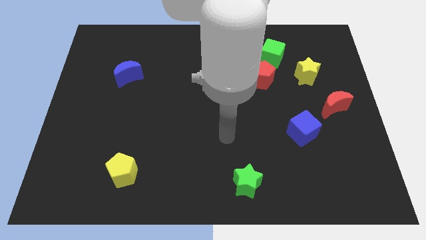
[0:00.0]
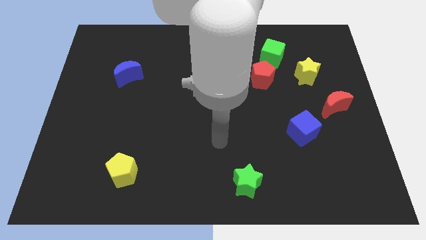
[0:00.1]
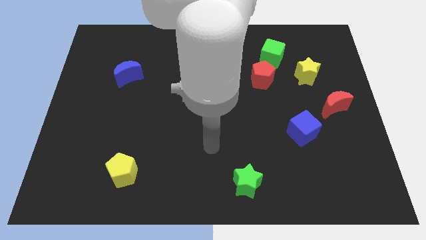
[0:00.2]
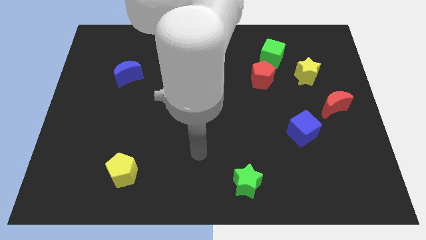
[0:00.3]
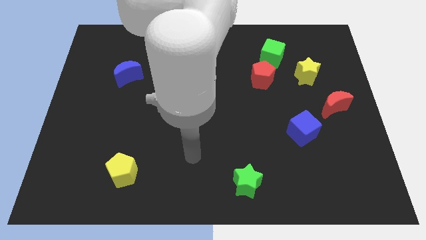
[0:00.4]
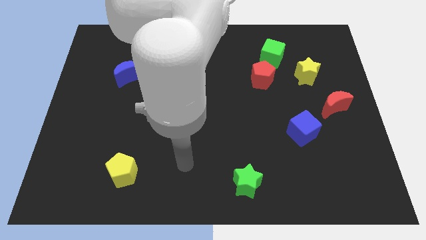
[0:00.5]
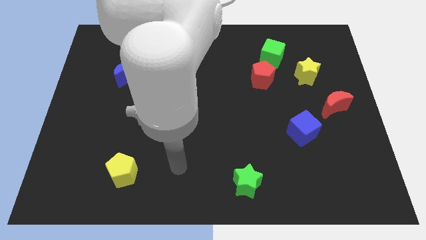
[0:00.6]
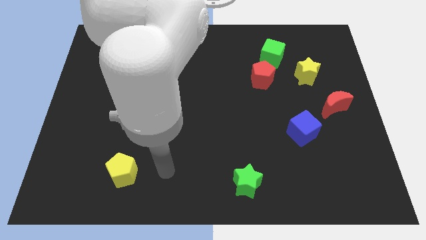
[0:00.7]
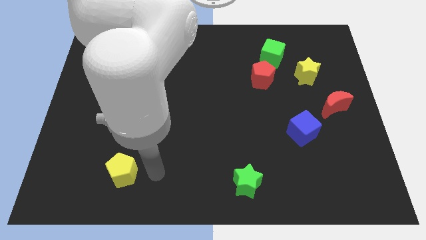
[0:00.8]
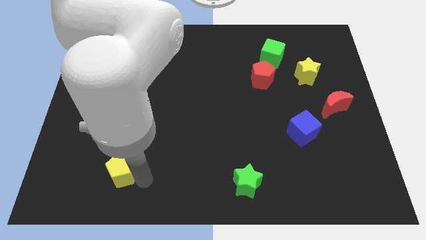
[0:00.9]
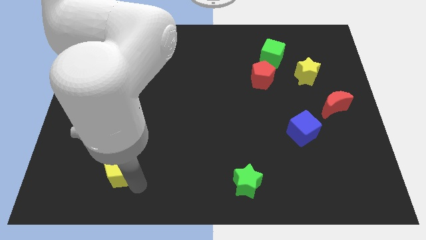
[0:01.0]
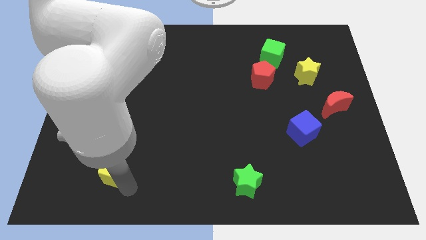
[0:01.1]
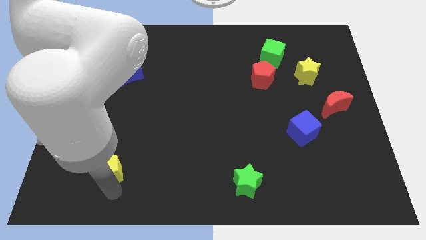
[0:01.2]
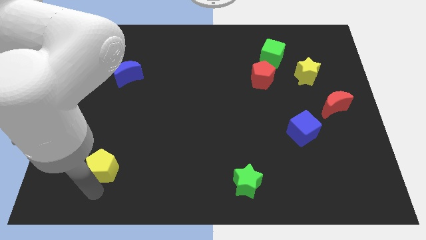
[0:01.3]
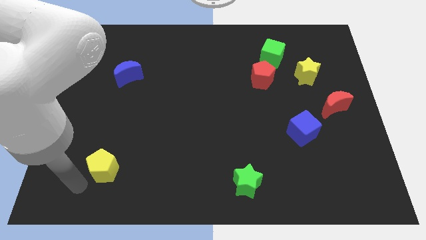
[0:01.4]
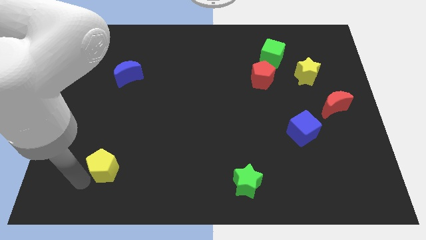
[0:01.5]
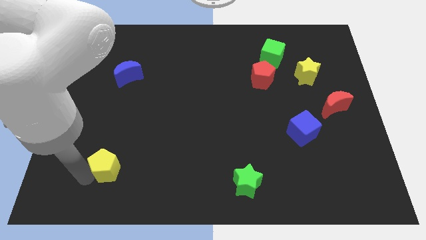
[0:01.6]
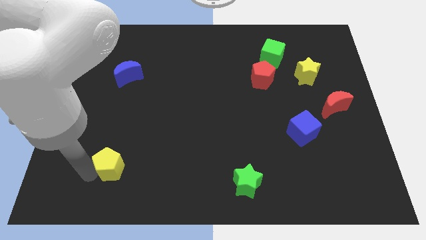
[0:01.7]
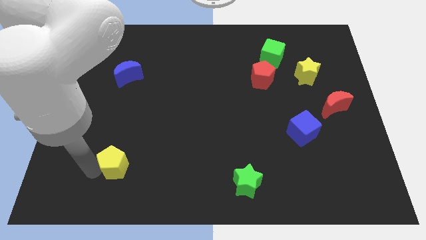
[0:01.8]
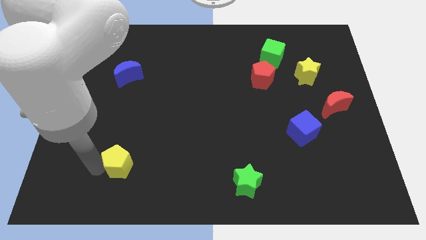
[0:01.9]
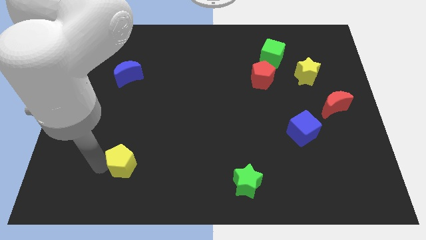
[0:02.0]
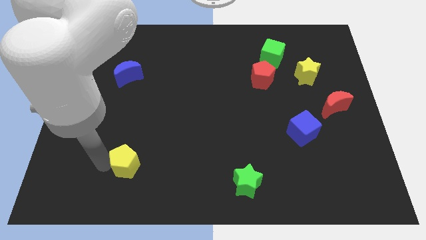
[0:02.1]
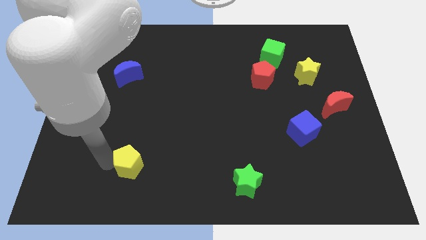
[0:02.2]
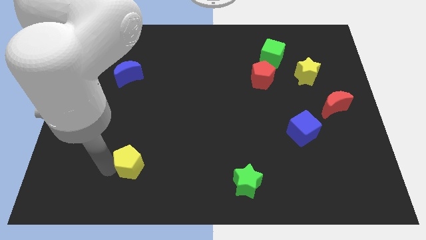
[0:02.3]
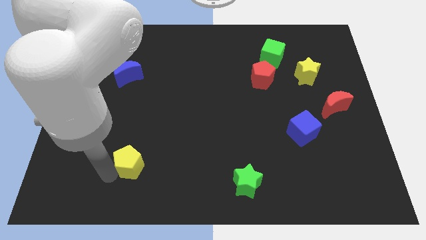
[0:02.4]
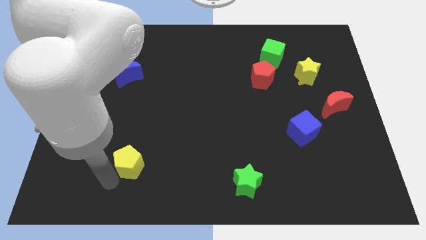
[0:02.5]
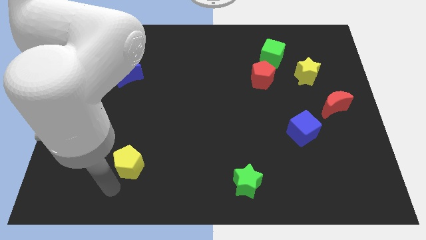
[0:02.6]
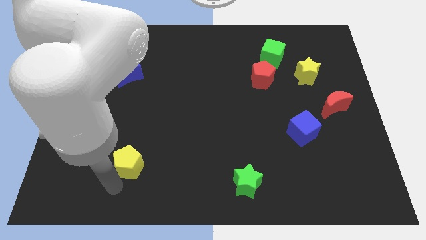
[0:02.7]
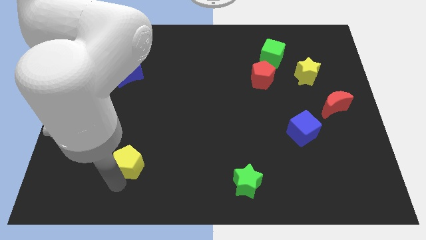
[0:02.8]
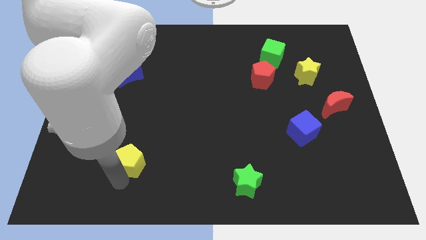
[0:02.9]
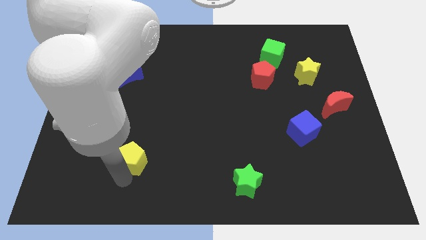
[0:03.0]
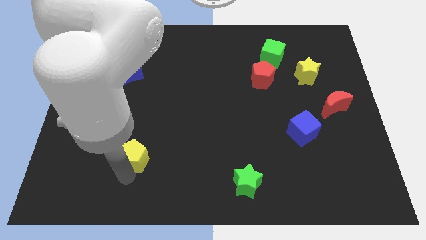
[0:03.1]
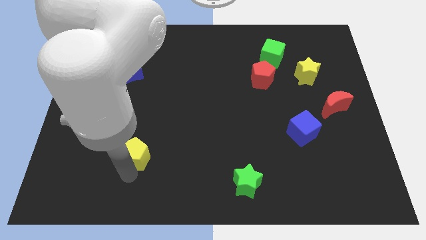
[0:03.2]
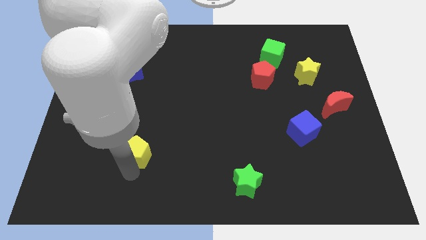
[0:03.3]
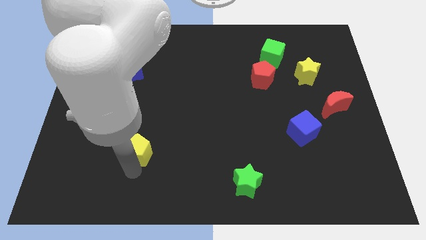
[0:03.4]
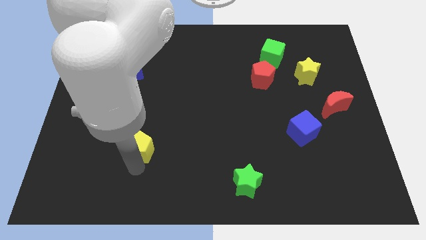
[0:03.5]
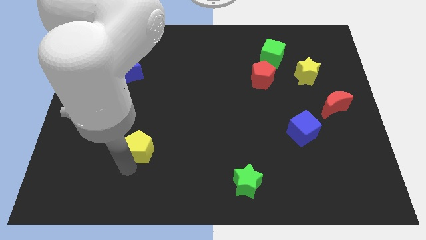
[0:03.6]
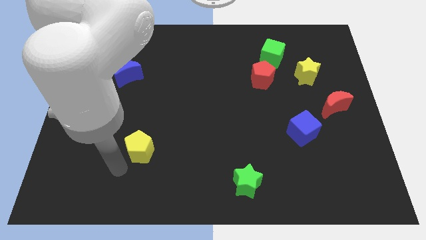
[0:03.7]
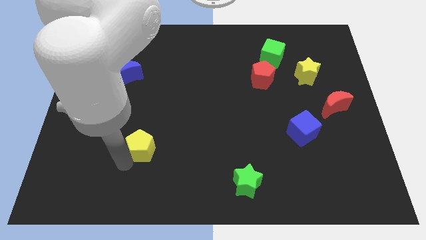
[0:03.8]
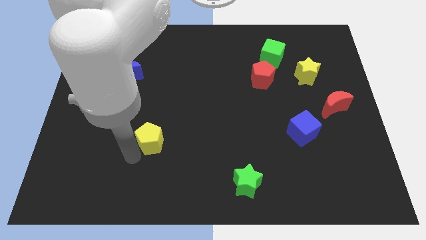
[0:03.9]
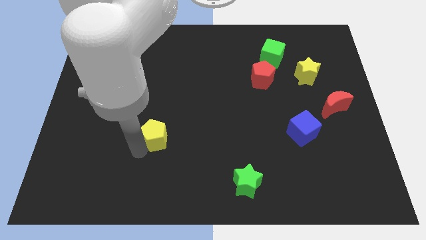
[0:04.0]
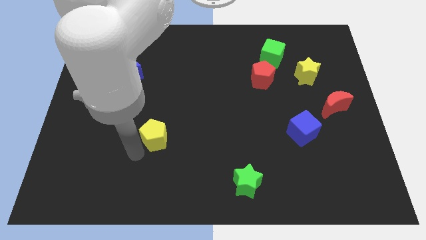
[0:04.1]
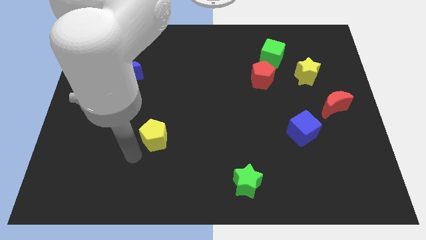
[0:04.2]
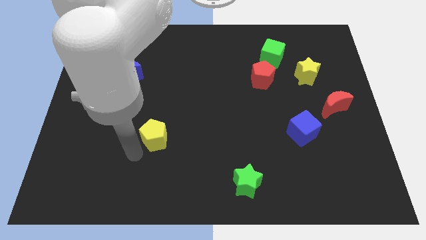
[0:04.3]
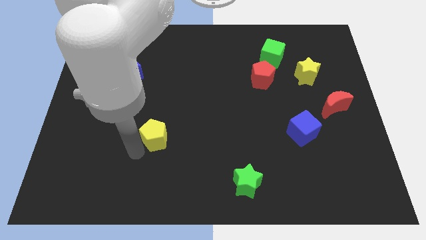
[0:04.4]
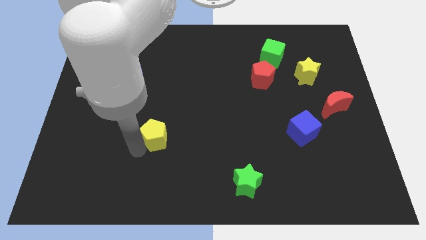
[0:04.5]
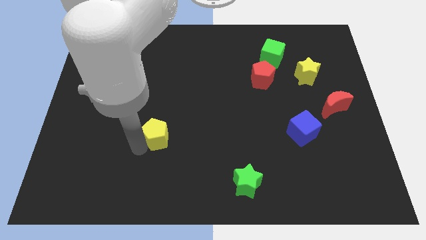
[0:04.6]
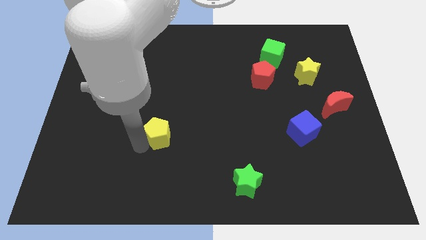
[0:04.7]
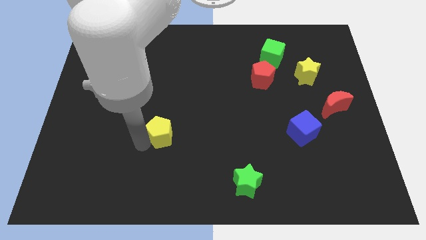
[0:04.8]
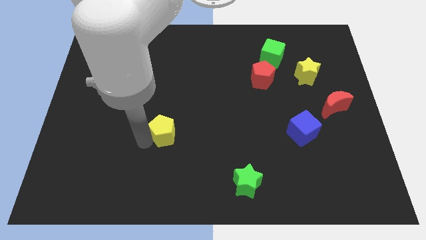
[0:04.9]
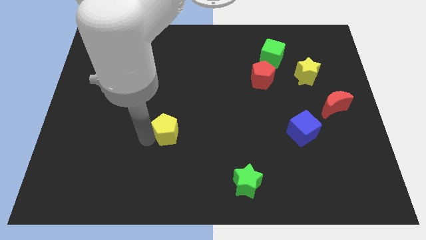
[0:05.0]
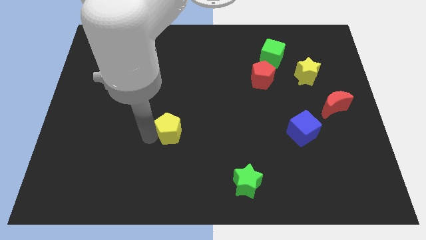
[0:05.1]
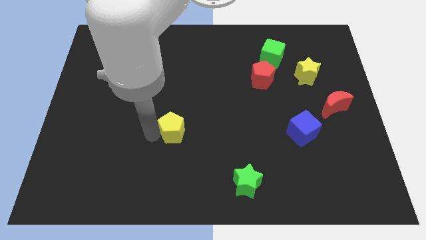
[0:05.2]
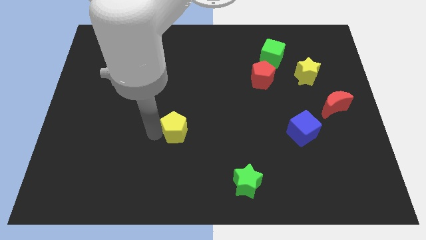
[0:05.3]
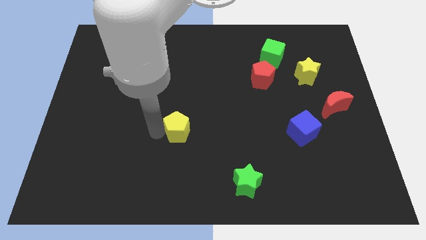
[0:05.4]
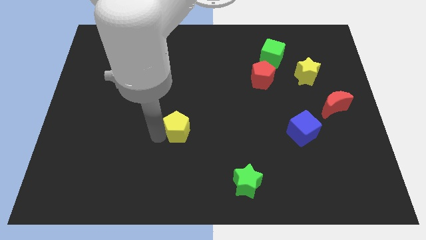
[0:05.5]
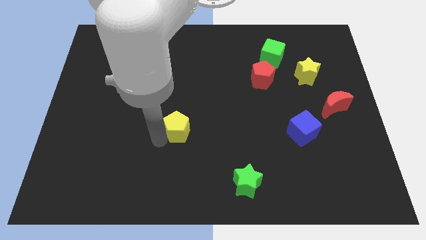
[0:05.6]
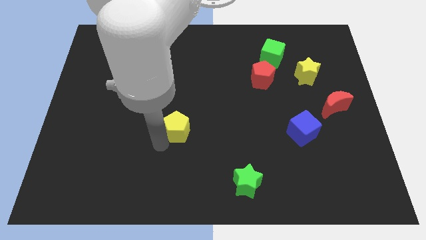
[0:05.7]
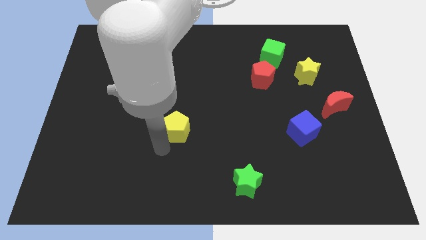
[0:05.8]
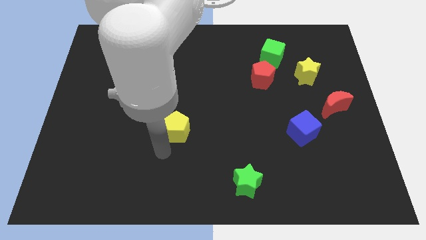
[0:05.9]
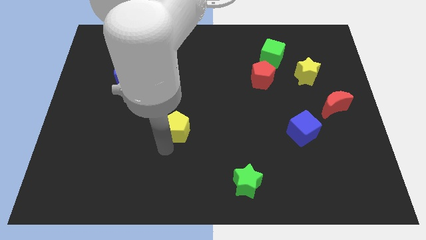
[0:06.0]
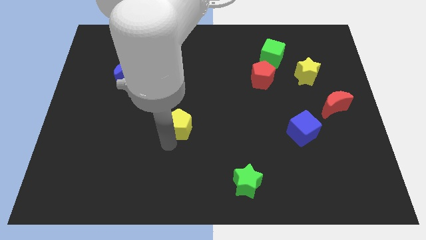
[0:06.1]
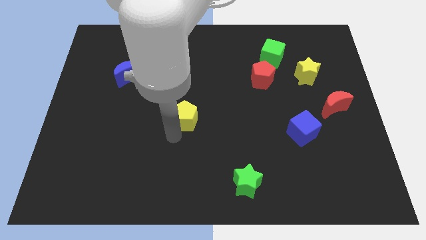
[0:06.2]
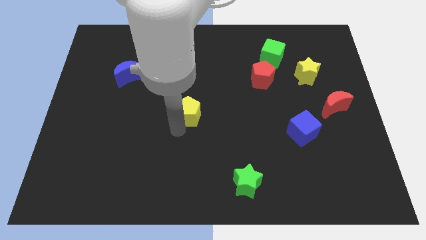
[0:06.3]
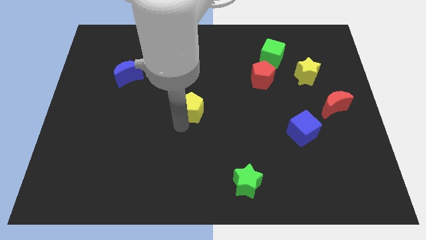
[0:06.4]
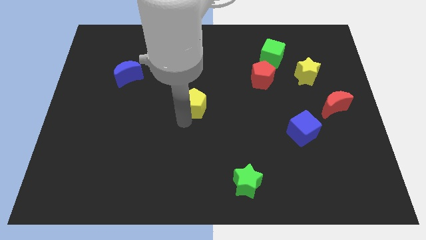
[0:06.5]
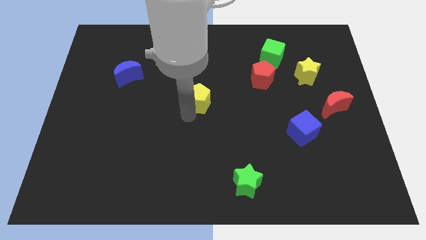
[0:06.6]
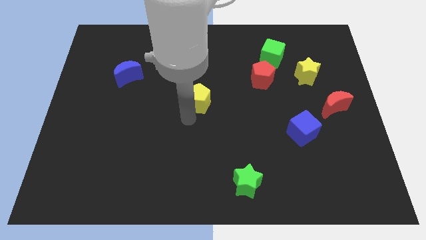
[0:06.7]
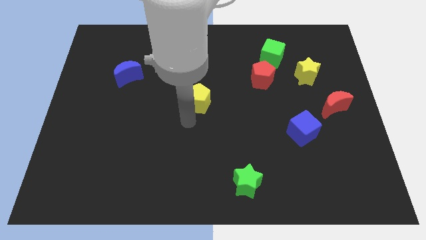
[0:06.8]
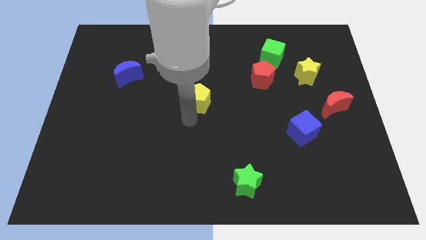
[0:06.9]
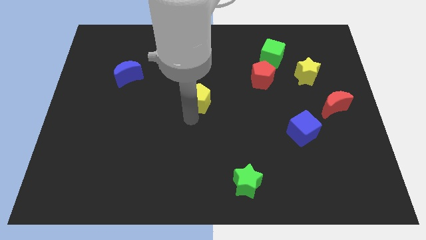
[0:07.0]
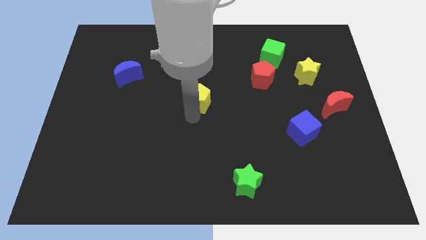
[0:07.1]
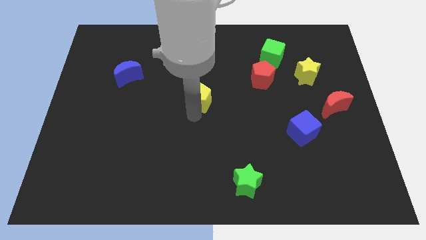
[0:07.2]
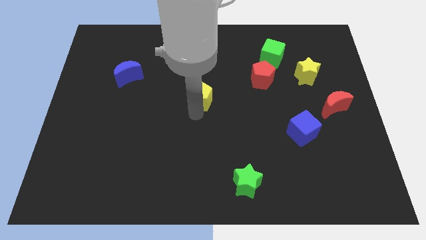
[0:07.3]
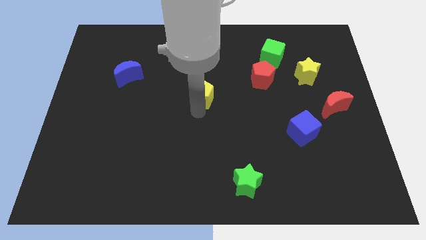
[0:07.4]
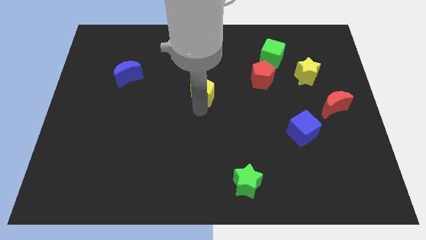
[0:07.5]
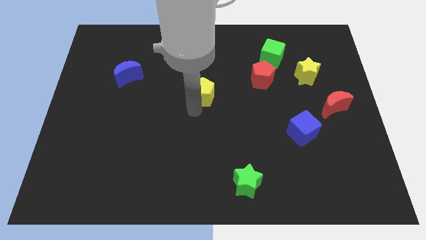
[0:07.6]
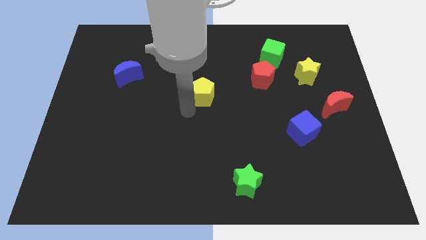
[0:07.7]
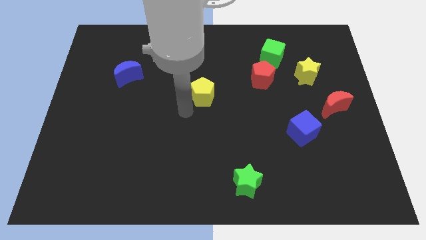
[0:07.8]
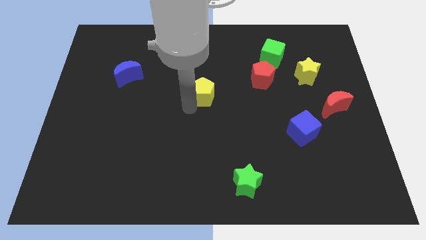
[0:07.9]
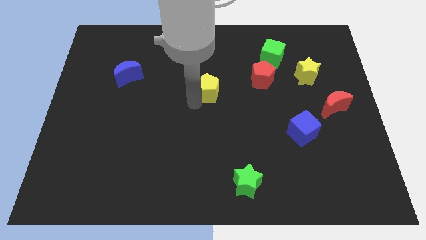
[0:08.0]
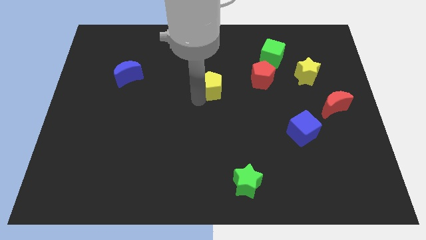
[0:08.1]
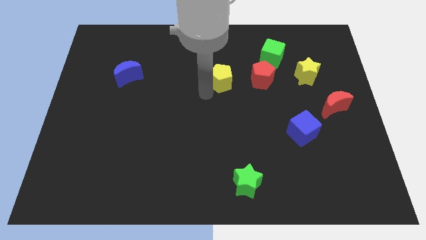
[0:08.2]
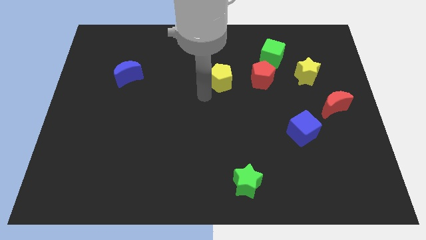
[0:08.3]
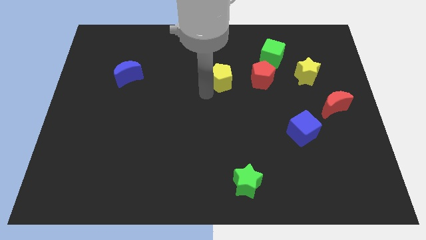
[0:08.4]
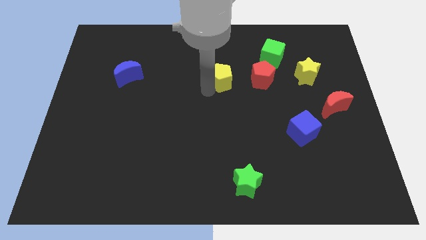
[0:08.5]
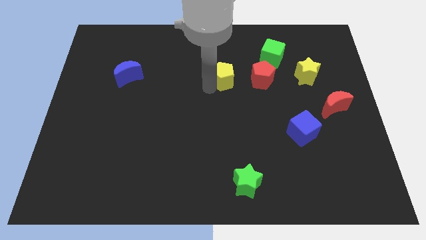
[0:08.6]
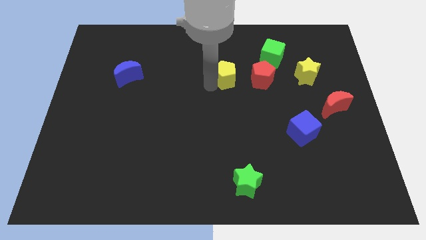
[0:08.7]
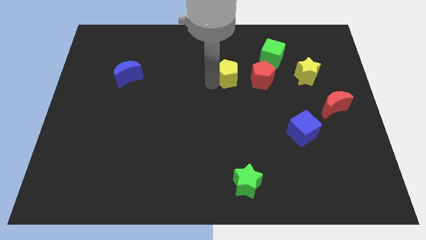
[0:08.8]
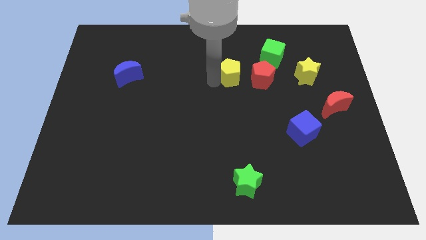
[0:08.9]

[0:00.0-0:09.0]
push the yellow pentagon to the top left of the red pentagon
